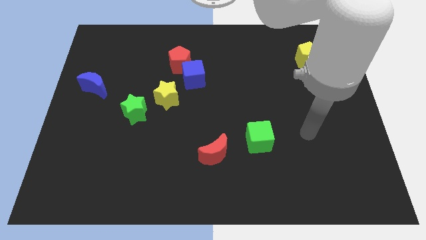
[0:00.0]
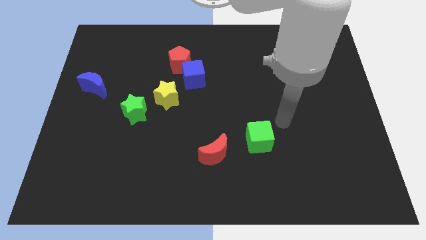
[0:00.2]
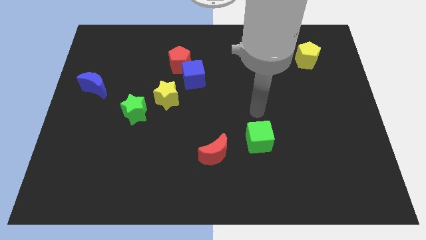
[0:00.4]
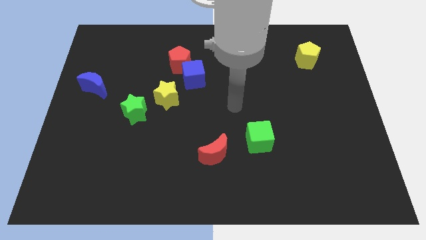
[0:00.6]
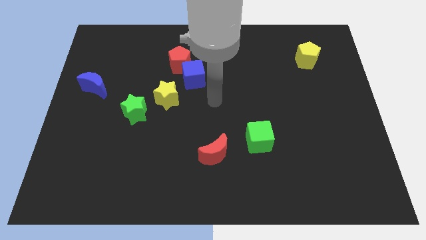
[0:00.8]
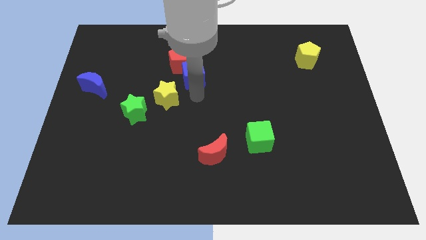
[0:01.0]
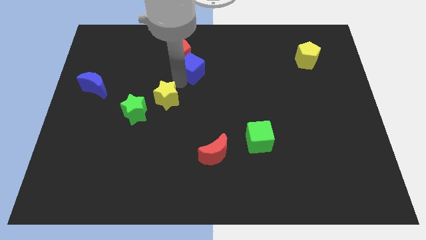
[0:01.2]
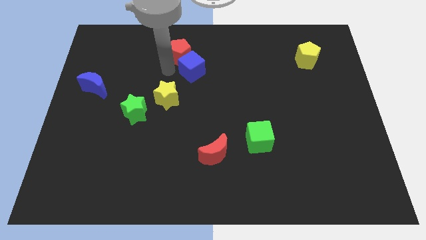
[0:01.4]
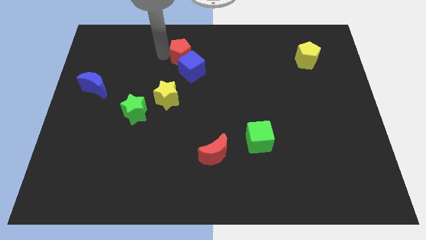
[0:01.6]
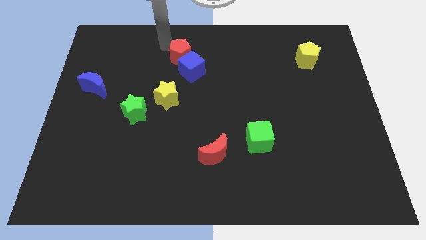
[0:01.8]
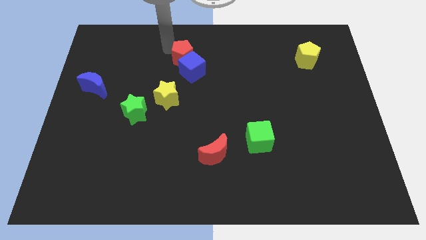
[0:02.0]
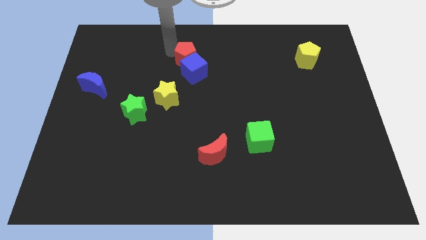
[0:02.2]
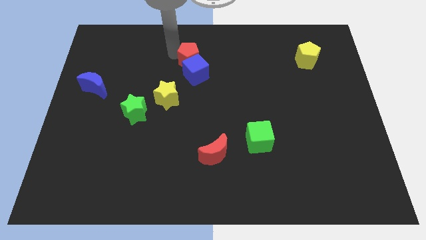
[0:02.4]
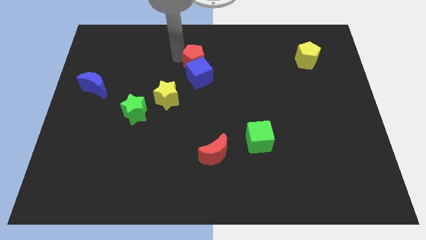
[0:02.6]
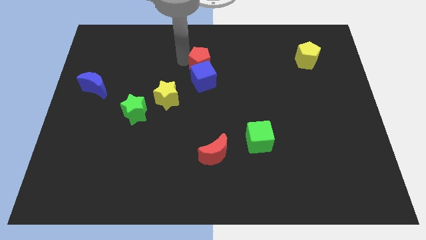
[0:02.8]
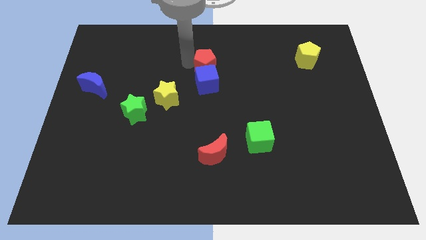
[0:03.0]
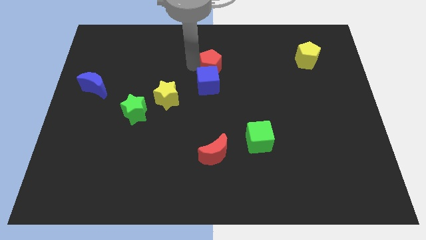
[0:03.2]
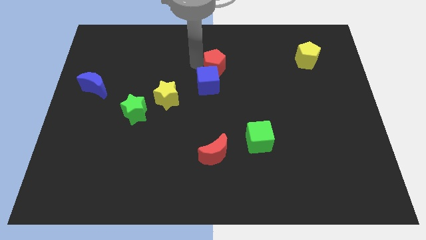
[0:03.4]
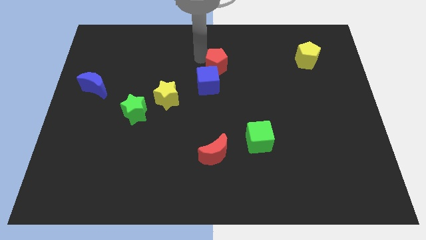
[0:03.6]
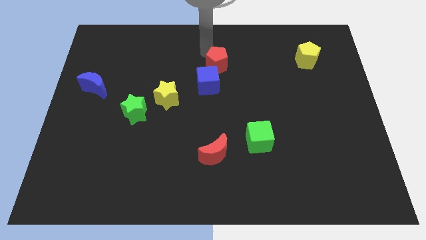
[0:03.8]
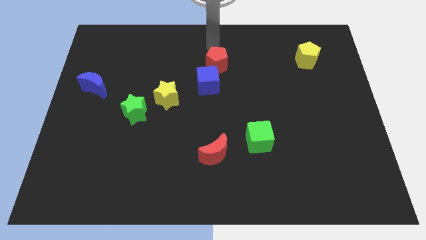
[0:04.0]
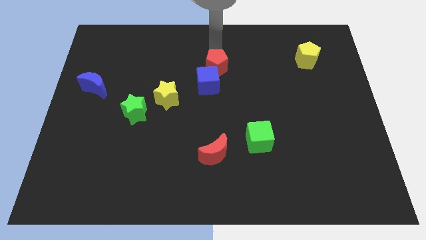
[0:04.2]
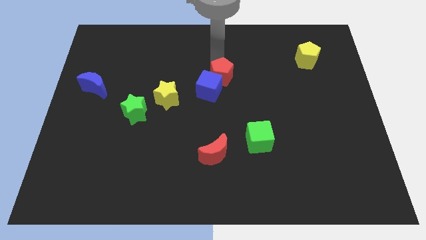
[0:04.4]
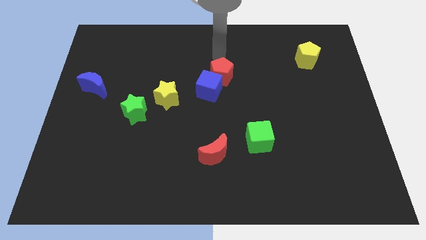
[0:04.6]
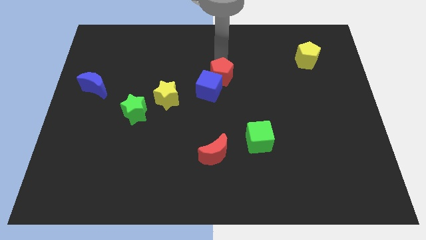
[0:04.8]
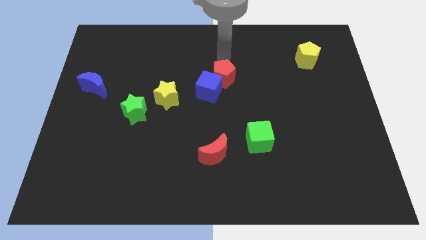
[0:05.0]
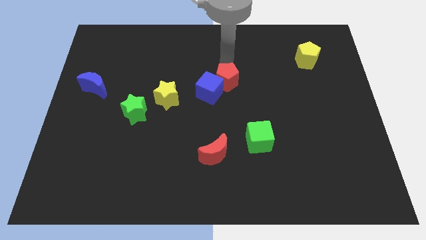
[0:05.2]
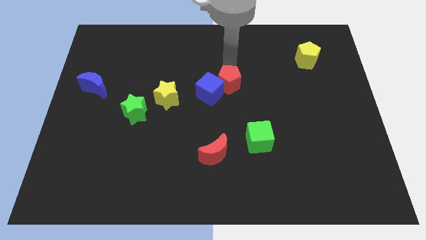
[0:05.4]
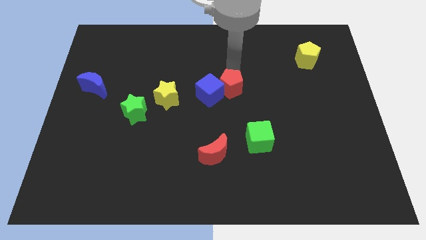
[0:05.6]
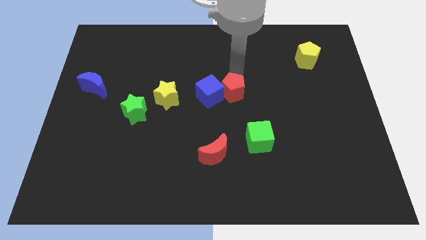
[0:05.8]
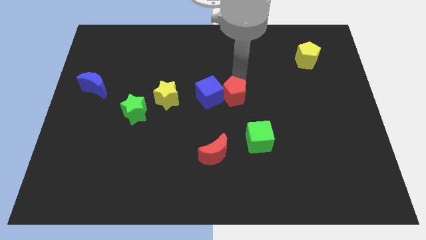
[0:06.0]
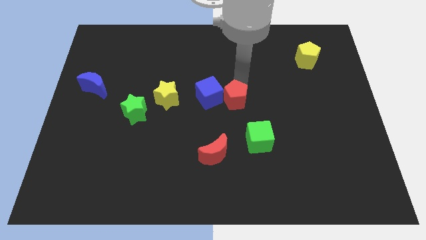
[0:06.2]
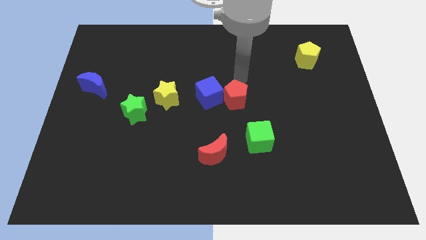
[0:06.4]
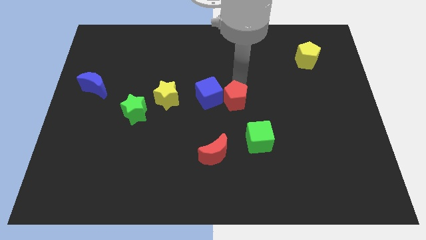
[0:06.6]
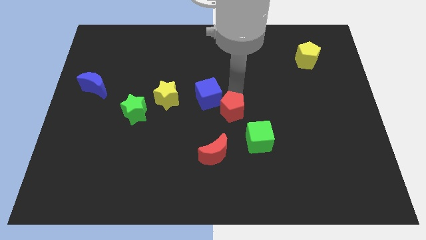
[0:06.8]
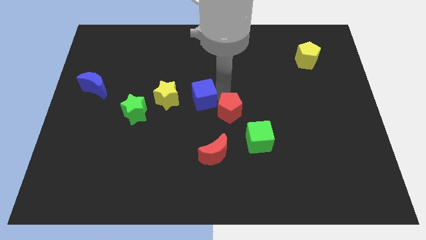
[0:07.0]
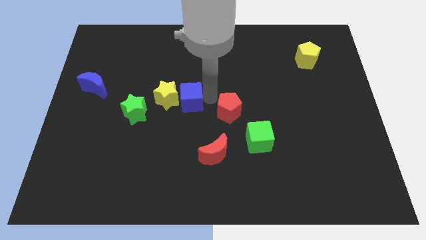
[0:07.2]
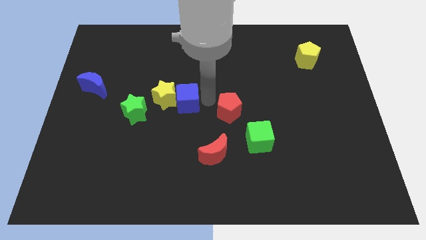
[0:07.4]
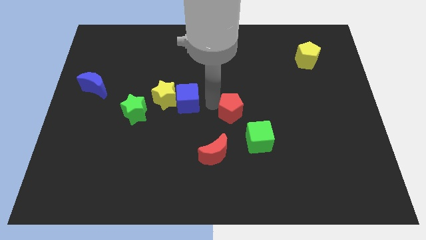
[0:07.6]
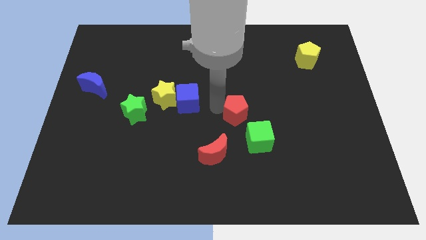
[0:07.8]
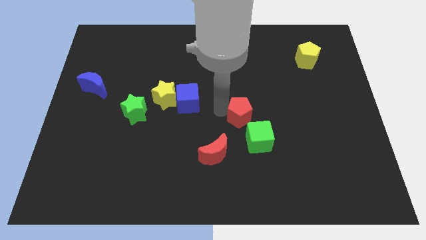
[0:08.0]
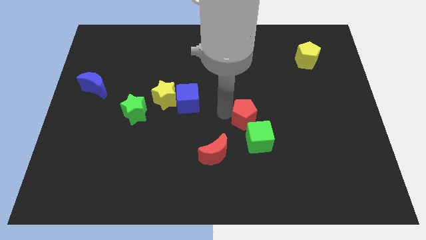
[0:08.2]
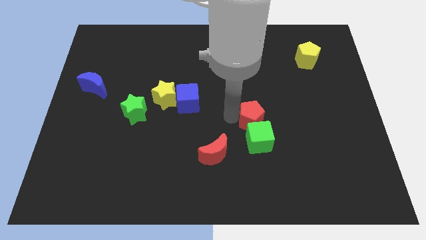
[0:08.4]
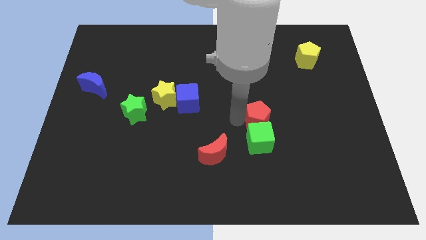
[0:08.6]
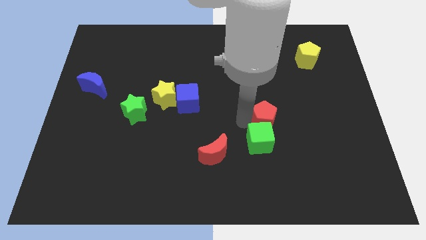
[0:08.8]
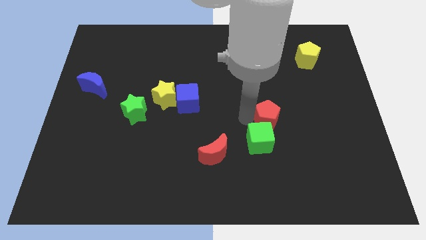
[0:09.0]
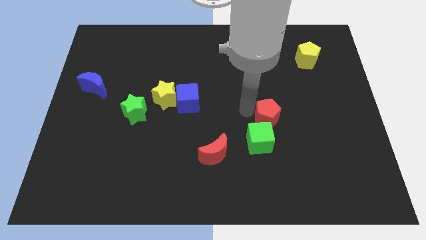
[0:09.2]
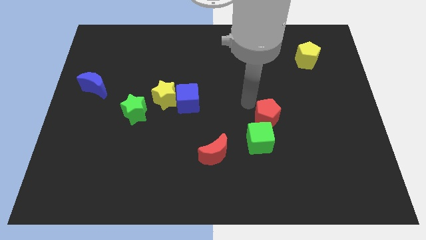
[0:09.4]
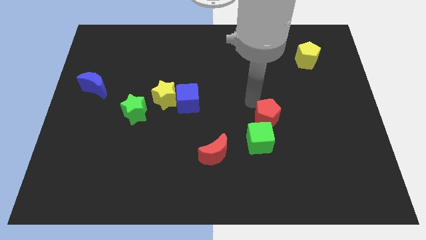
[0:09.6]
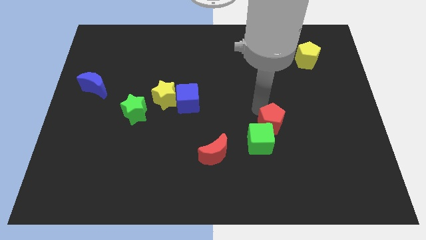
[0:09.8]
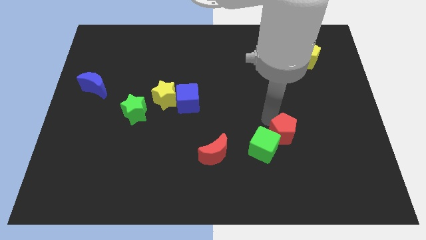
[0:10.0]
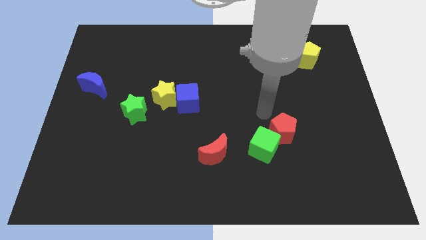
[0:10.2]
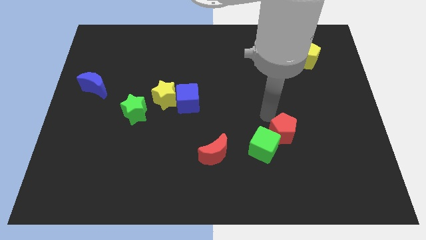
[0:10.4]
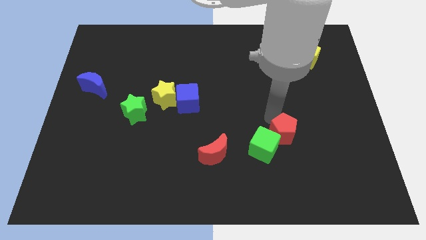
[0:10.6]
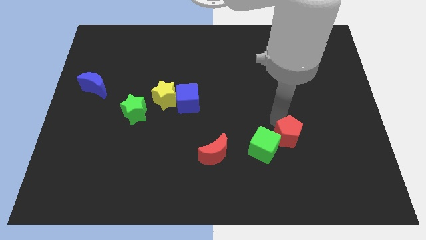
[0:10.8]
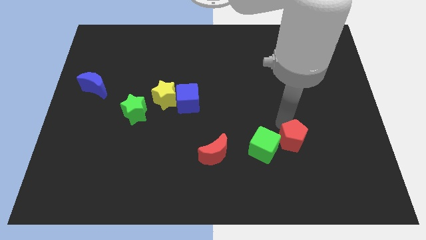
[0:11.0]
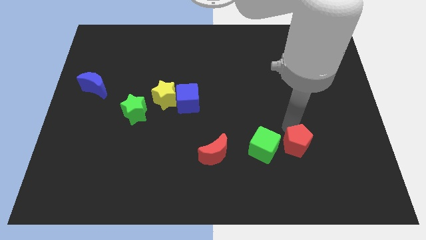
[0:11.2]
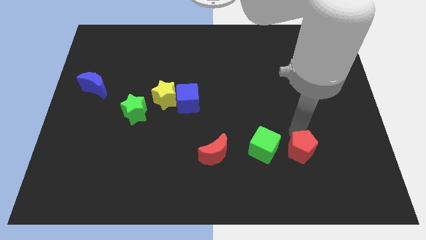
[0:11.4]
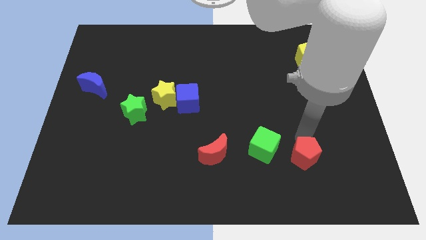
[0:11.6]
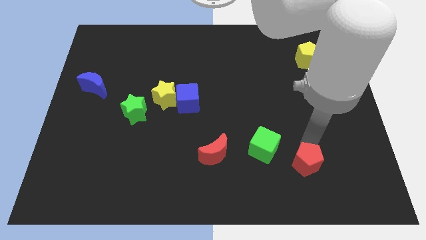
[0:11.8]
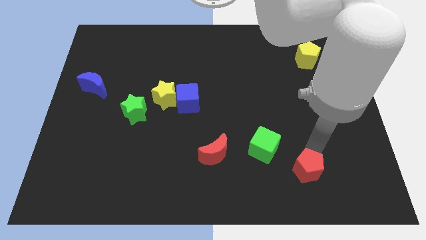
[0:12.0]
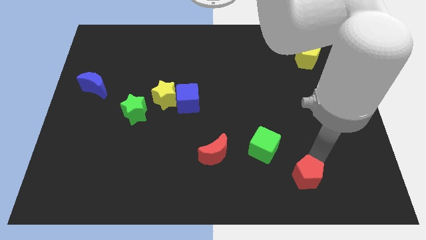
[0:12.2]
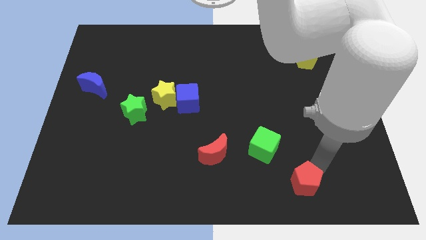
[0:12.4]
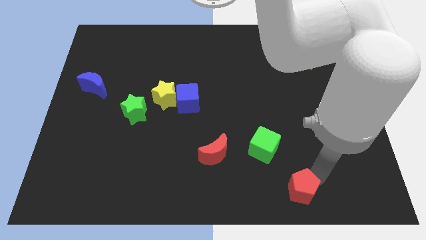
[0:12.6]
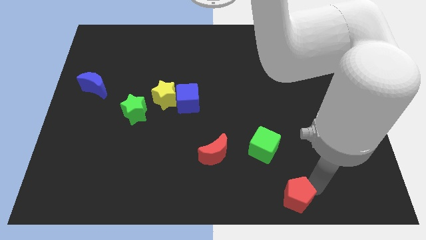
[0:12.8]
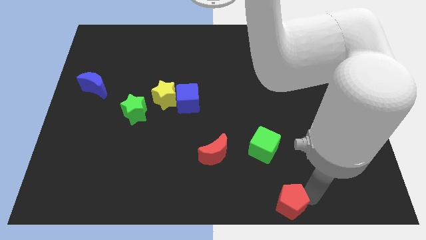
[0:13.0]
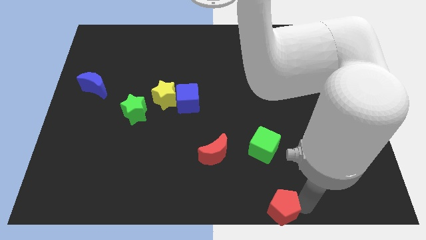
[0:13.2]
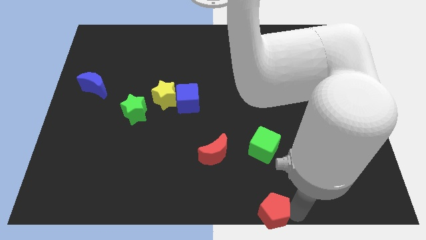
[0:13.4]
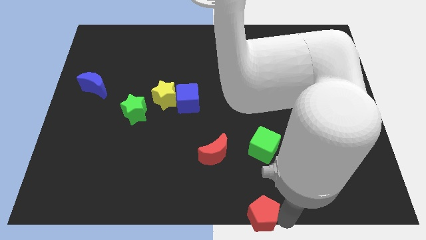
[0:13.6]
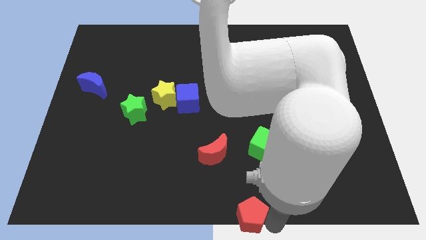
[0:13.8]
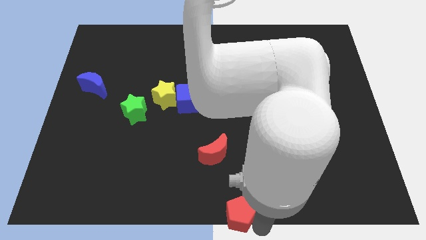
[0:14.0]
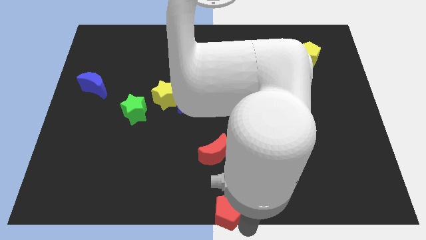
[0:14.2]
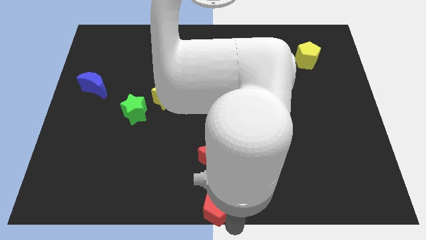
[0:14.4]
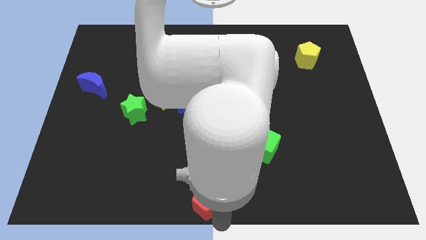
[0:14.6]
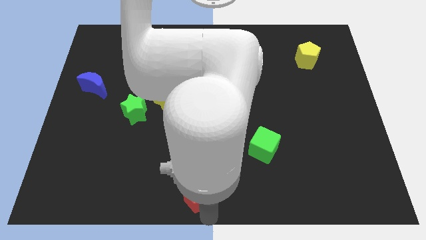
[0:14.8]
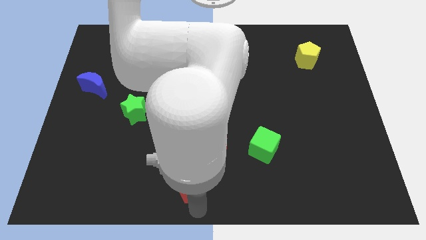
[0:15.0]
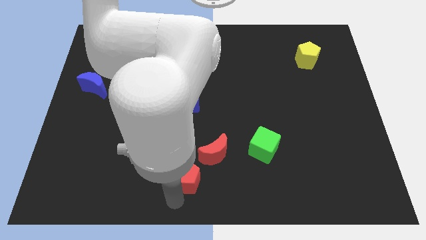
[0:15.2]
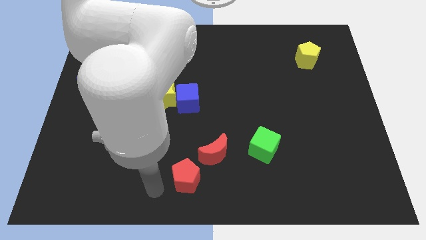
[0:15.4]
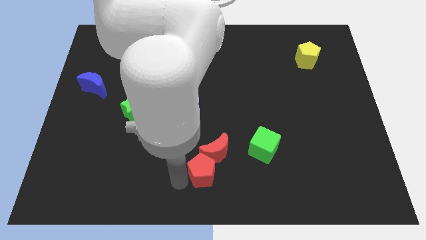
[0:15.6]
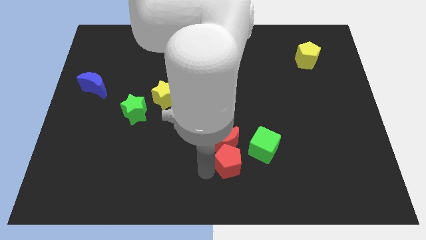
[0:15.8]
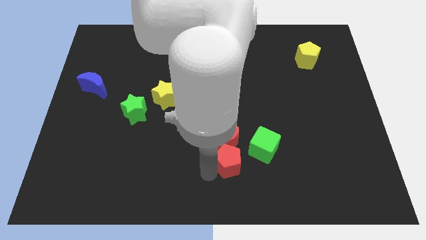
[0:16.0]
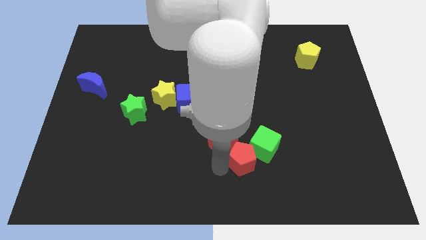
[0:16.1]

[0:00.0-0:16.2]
slide the red pentagon to the right side of the red moon

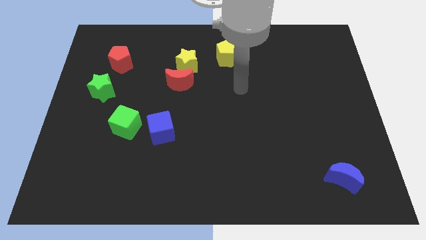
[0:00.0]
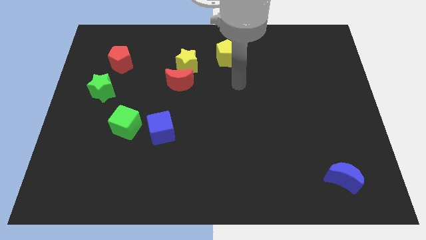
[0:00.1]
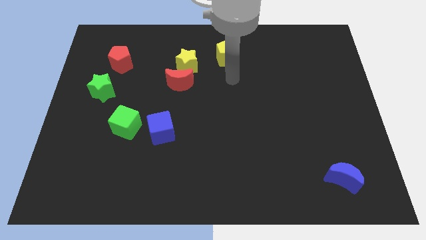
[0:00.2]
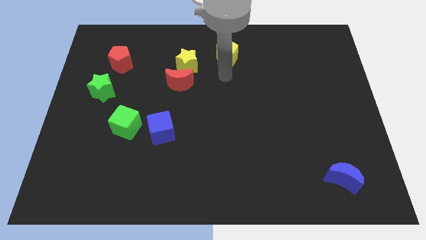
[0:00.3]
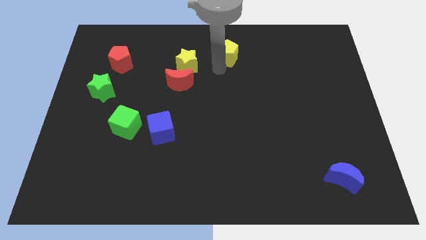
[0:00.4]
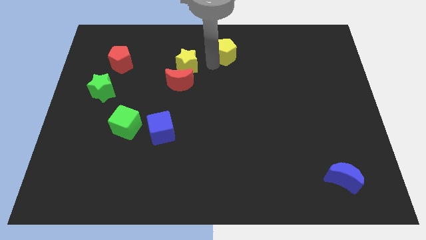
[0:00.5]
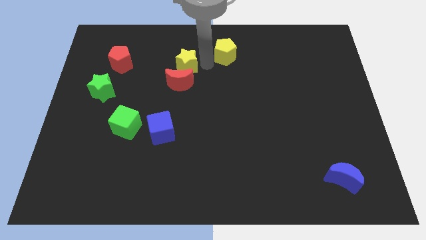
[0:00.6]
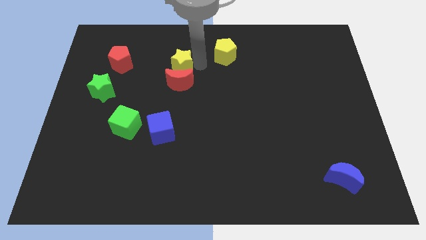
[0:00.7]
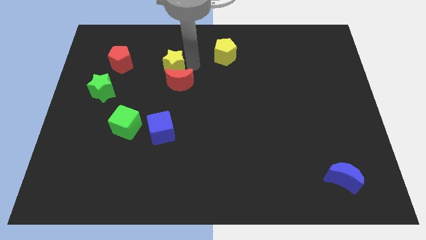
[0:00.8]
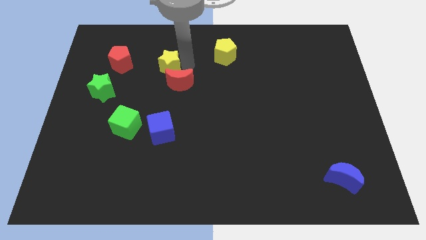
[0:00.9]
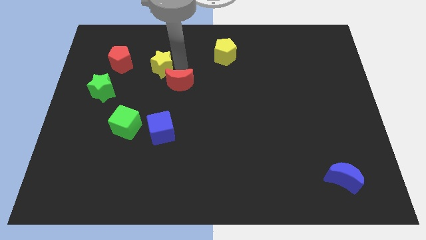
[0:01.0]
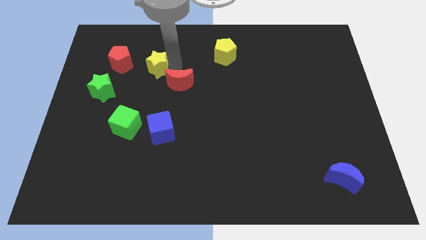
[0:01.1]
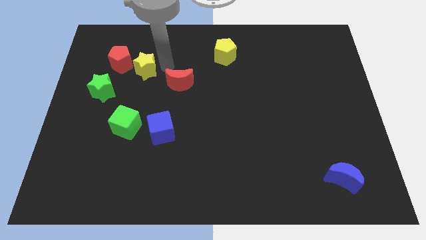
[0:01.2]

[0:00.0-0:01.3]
put the yellow star to the top right of the green star
